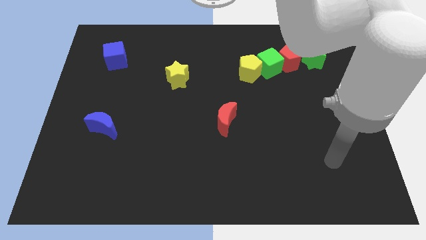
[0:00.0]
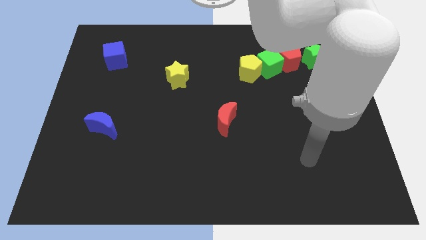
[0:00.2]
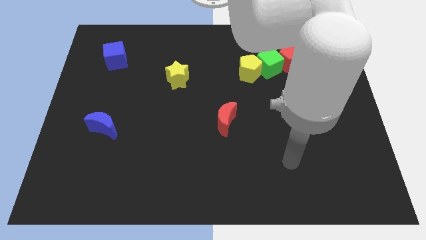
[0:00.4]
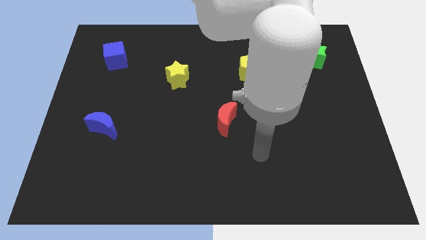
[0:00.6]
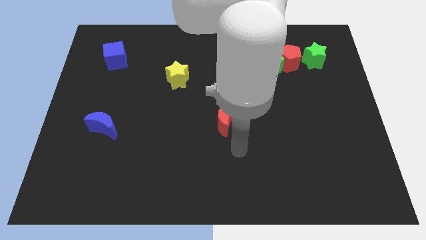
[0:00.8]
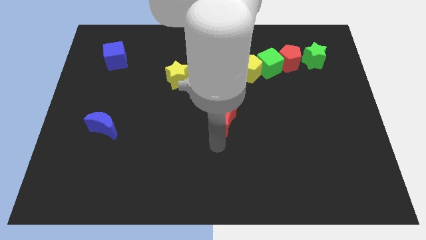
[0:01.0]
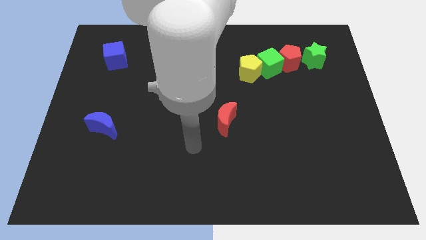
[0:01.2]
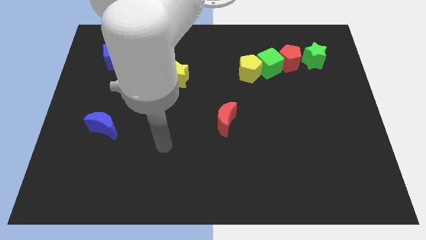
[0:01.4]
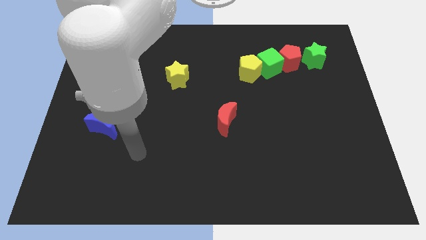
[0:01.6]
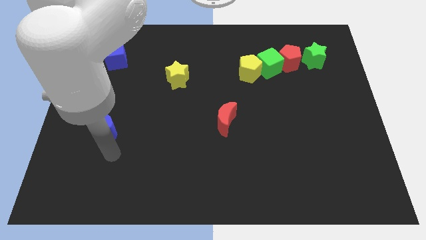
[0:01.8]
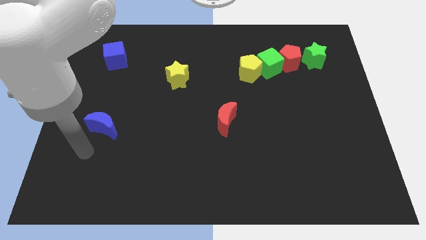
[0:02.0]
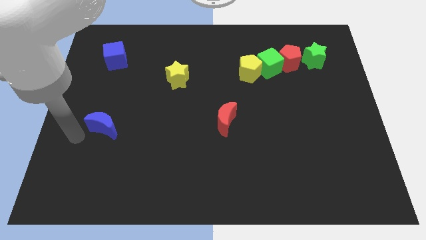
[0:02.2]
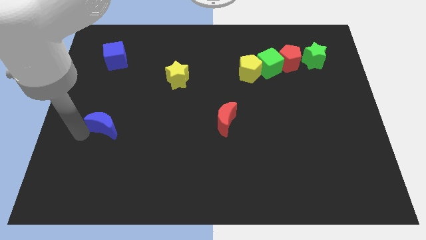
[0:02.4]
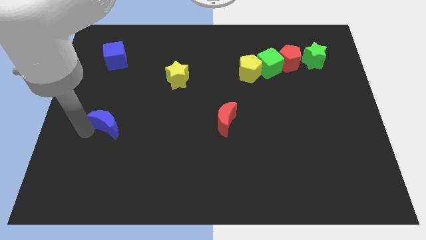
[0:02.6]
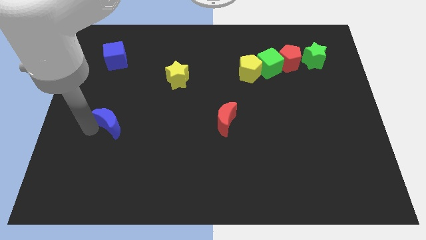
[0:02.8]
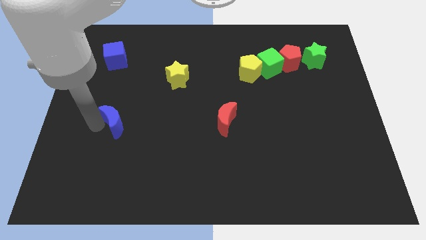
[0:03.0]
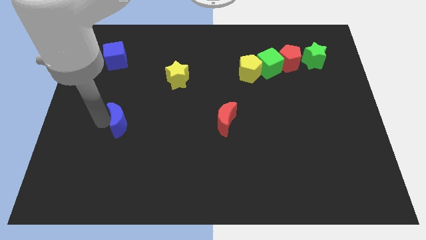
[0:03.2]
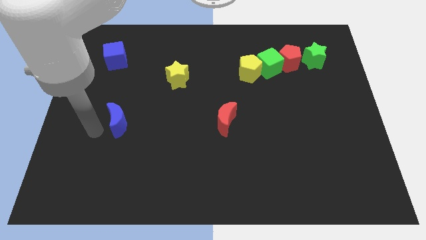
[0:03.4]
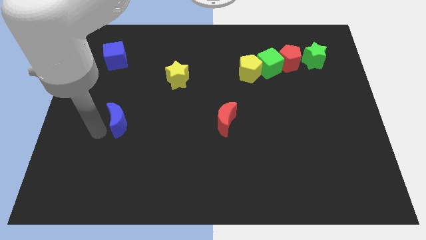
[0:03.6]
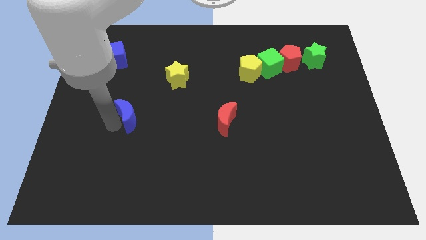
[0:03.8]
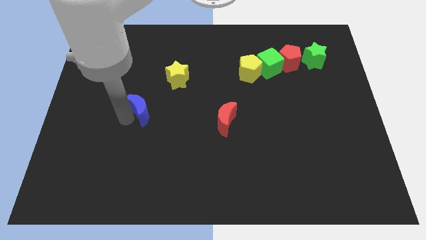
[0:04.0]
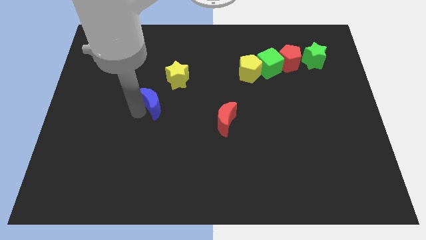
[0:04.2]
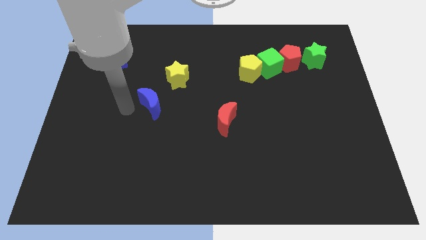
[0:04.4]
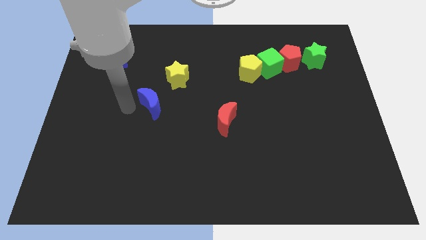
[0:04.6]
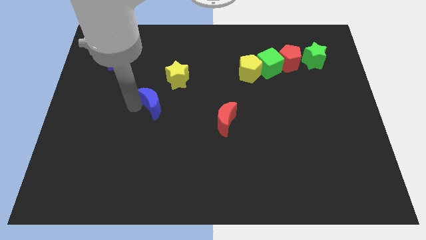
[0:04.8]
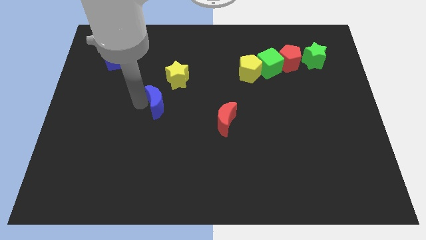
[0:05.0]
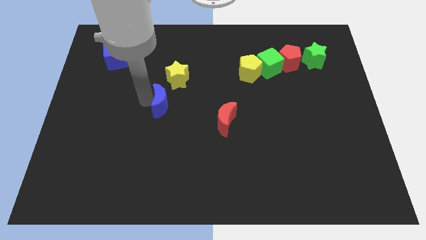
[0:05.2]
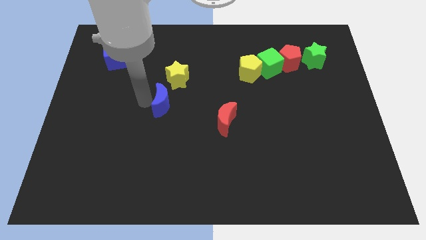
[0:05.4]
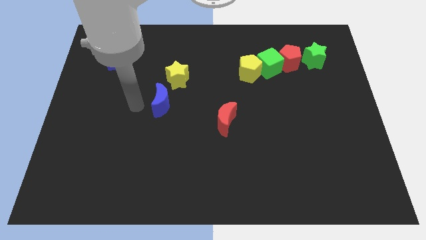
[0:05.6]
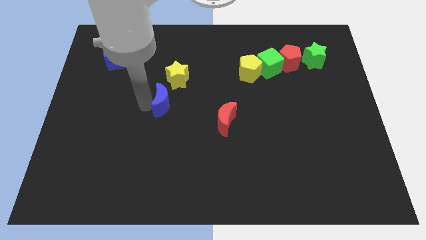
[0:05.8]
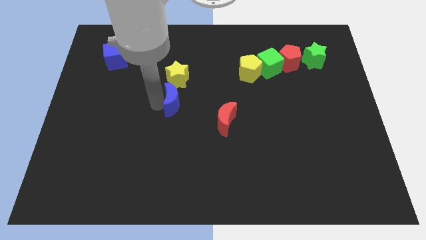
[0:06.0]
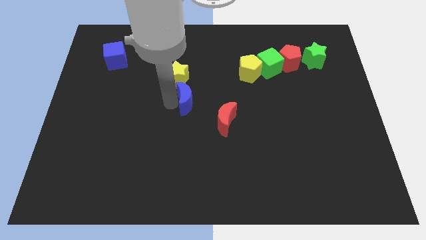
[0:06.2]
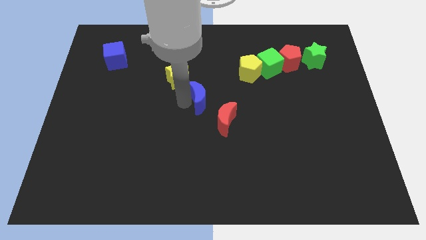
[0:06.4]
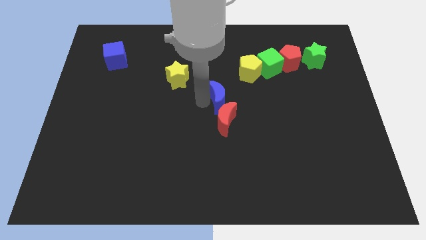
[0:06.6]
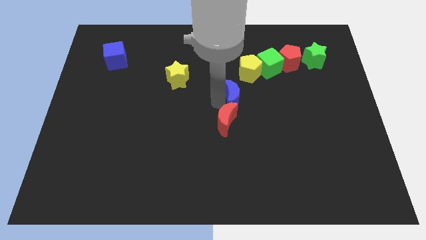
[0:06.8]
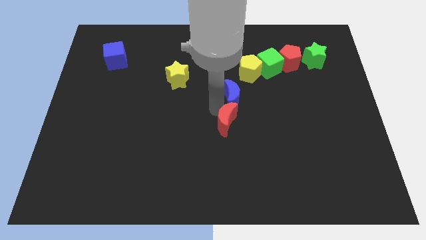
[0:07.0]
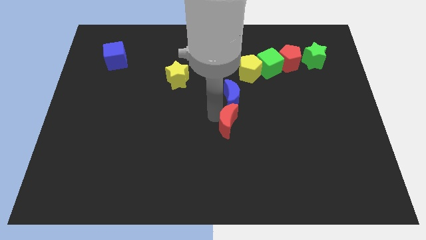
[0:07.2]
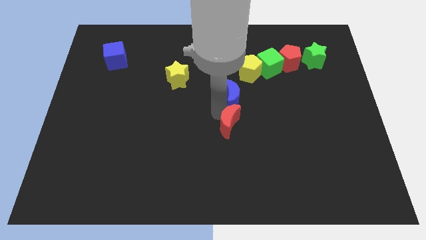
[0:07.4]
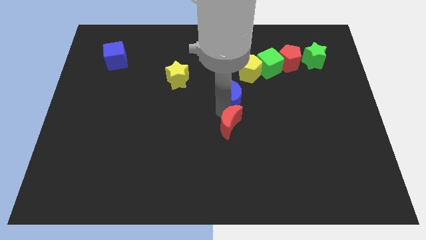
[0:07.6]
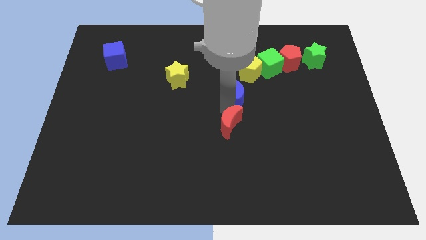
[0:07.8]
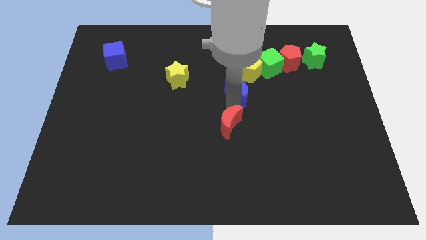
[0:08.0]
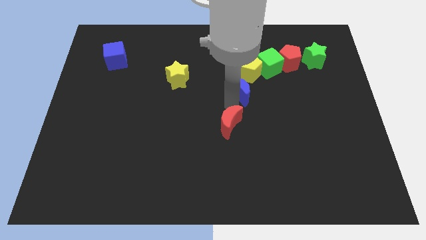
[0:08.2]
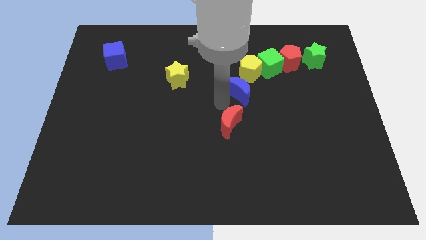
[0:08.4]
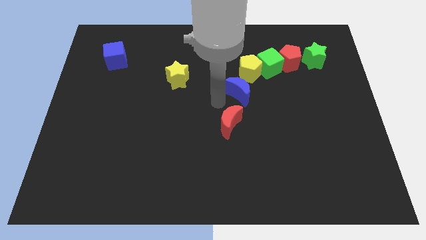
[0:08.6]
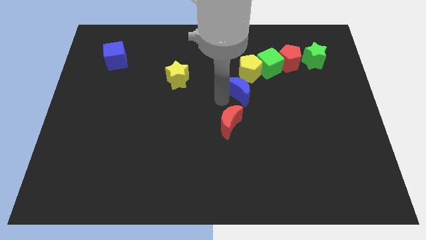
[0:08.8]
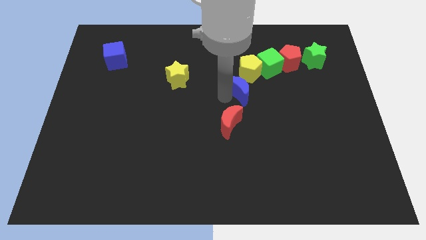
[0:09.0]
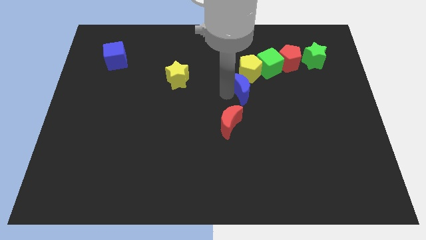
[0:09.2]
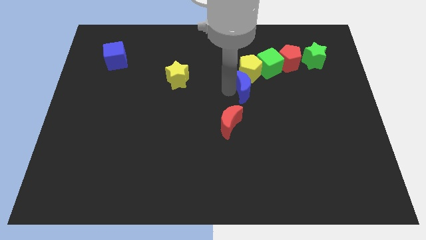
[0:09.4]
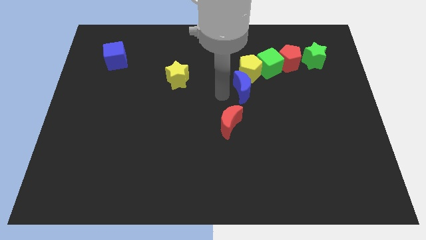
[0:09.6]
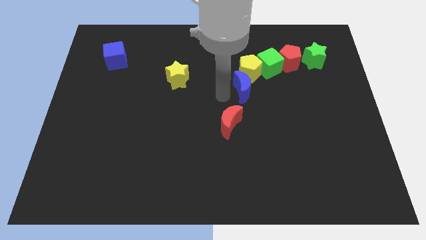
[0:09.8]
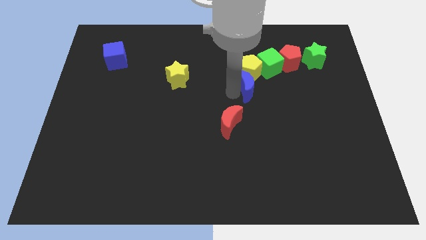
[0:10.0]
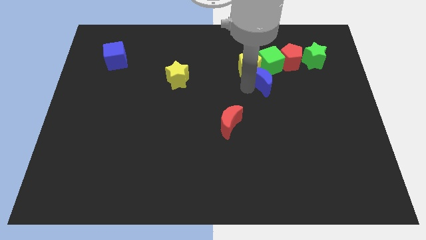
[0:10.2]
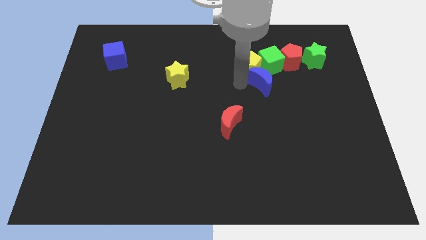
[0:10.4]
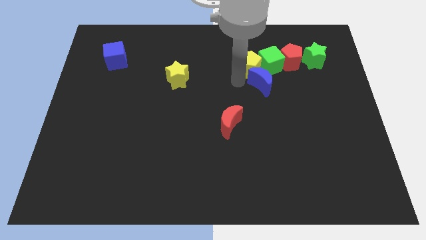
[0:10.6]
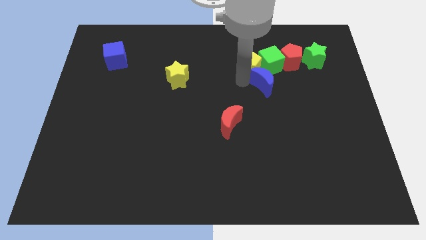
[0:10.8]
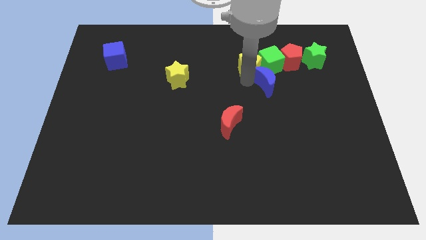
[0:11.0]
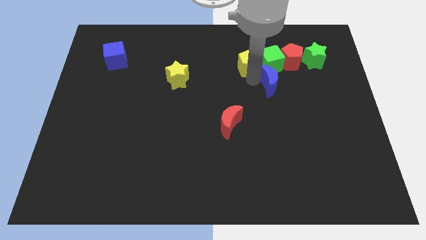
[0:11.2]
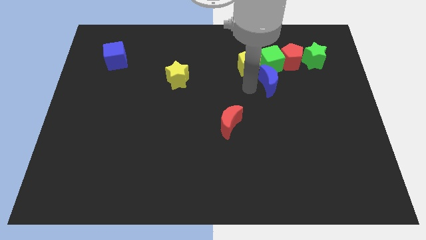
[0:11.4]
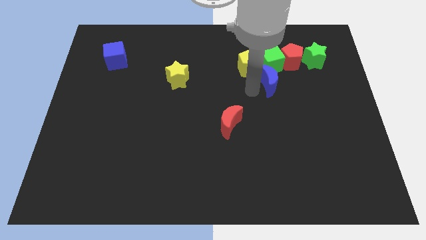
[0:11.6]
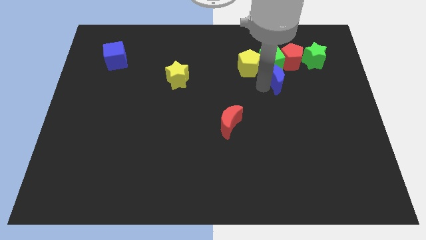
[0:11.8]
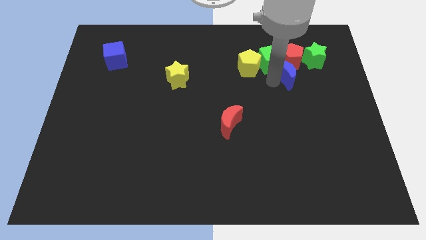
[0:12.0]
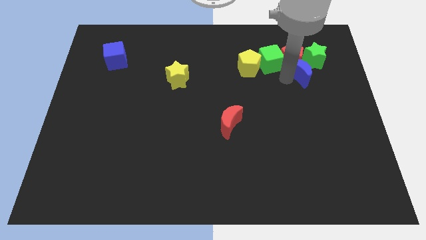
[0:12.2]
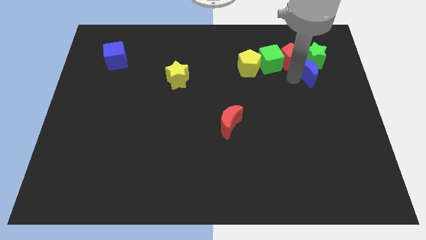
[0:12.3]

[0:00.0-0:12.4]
put the blue moon to the green star

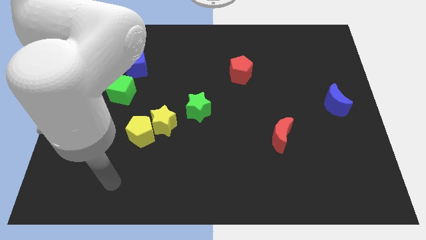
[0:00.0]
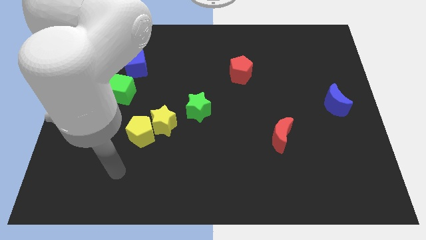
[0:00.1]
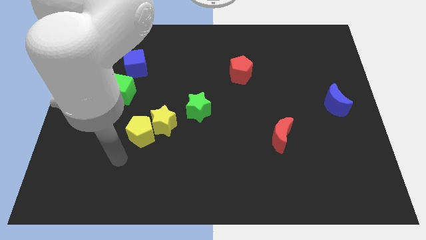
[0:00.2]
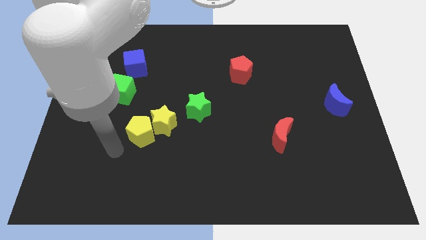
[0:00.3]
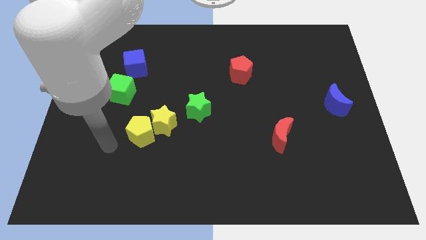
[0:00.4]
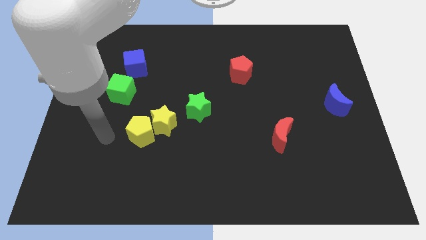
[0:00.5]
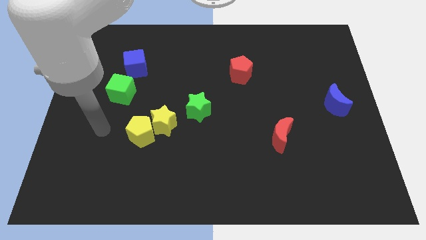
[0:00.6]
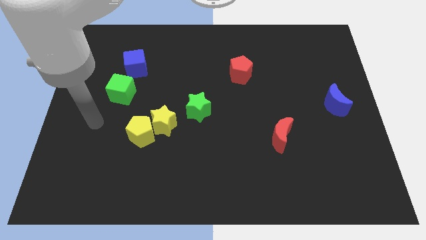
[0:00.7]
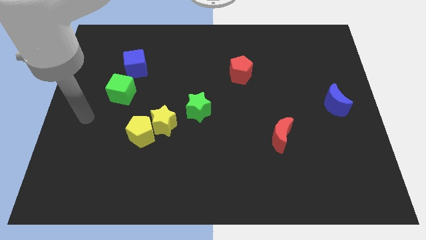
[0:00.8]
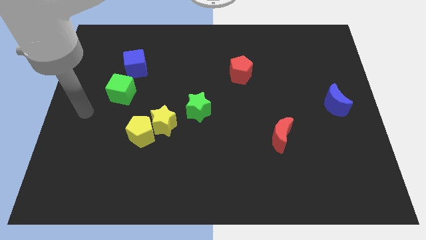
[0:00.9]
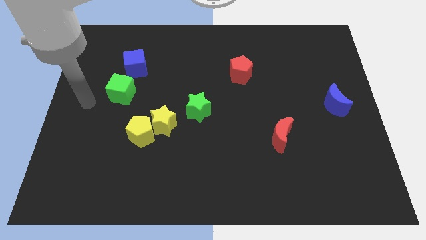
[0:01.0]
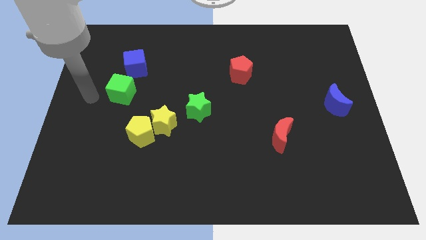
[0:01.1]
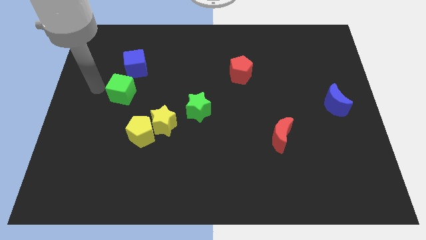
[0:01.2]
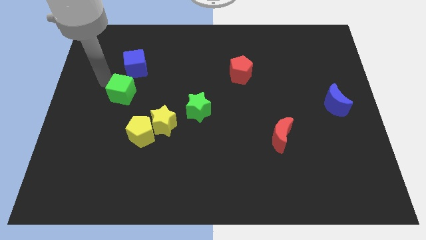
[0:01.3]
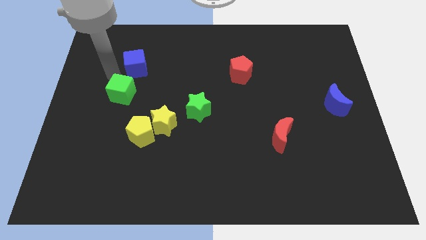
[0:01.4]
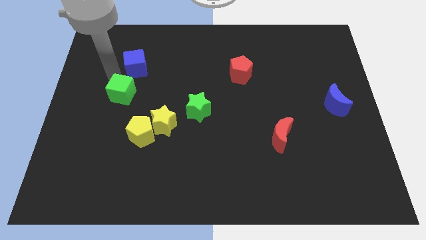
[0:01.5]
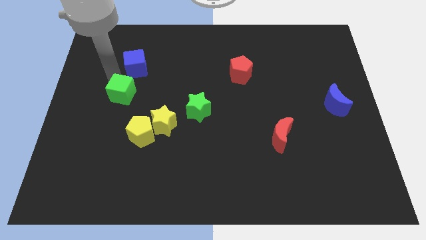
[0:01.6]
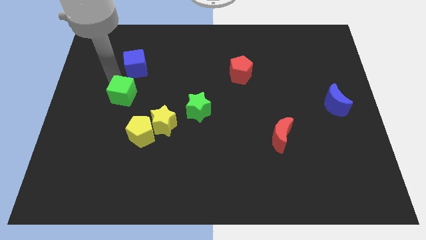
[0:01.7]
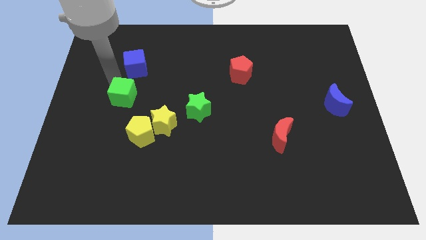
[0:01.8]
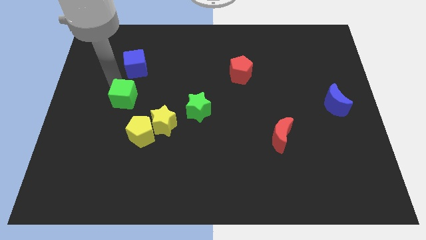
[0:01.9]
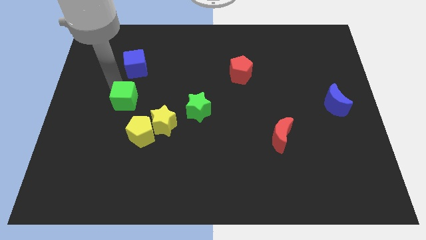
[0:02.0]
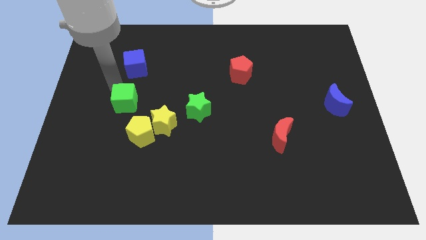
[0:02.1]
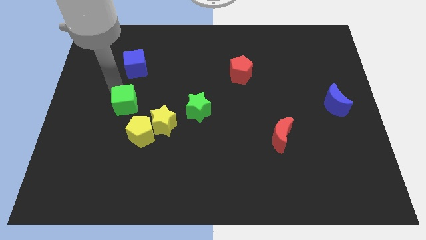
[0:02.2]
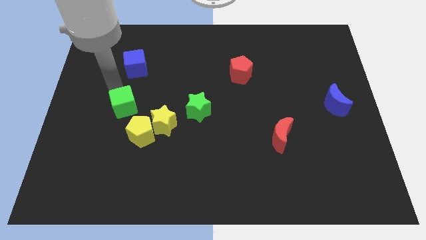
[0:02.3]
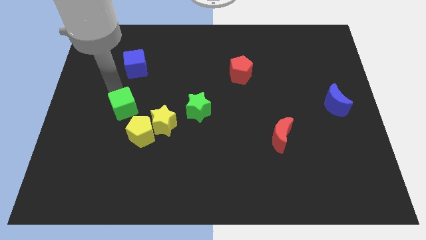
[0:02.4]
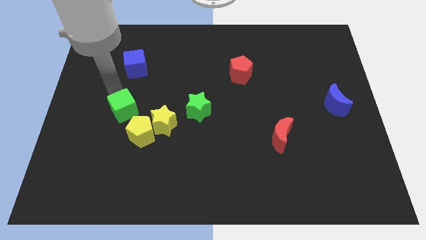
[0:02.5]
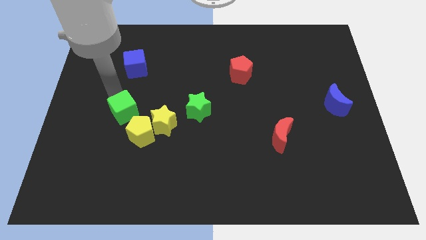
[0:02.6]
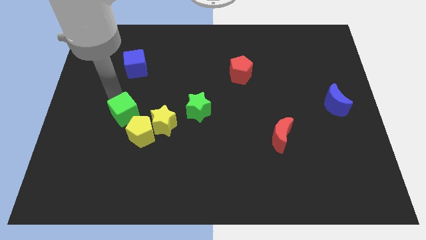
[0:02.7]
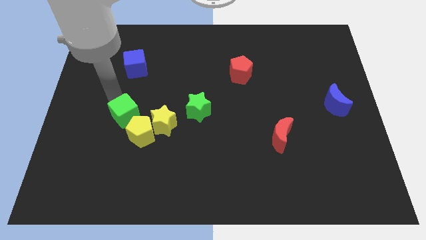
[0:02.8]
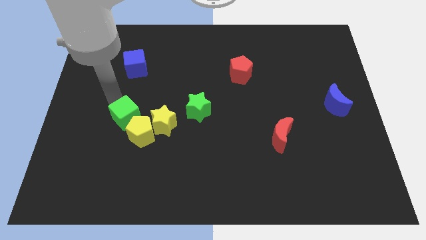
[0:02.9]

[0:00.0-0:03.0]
push the green cube towards the yellow pentagon
